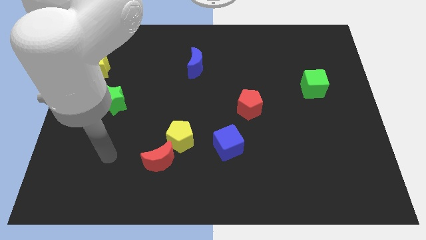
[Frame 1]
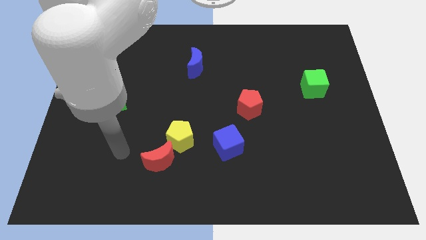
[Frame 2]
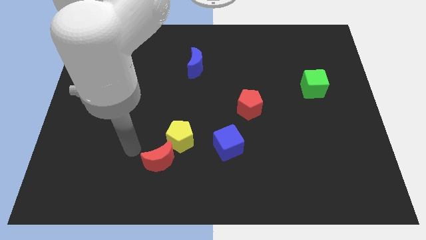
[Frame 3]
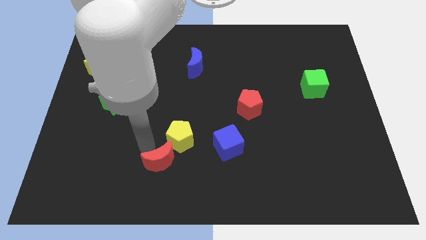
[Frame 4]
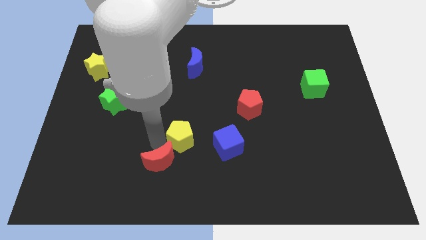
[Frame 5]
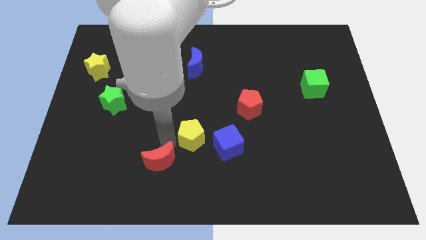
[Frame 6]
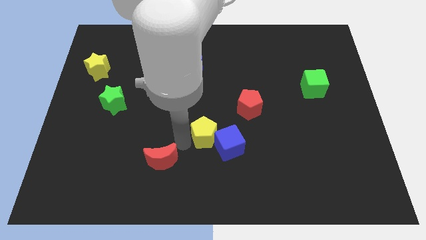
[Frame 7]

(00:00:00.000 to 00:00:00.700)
pull the red moon apart from the yellow pentagon

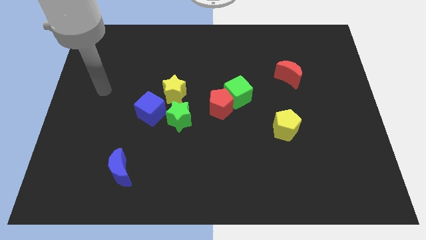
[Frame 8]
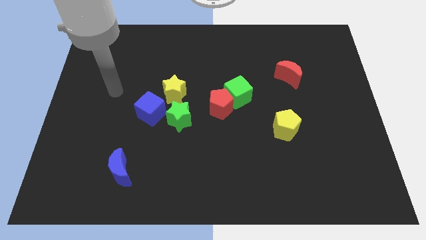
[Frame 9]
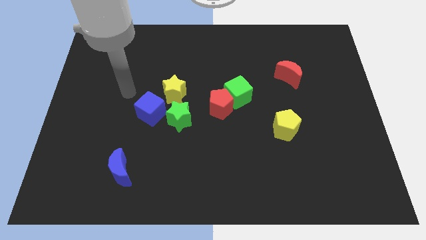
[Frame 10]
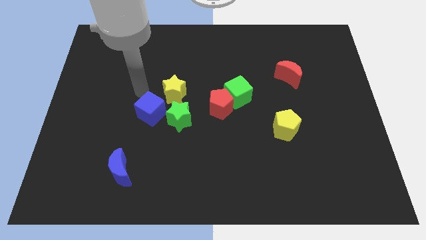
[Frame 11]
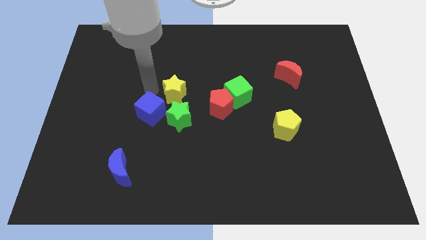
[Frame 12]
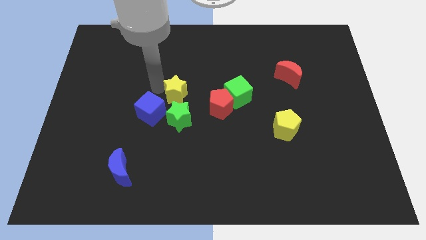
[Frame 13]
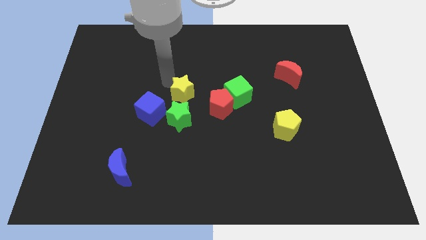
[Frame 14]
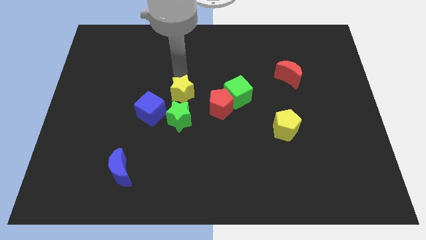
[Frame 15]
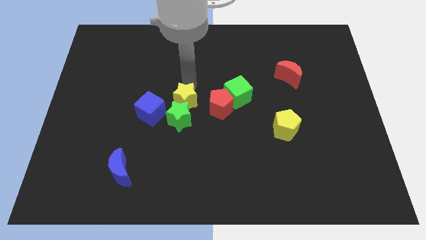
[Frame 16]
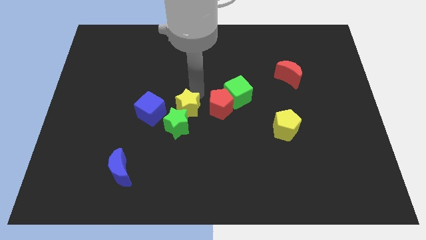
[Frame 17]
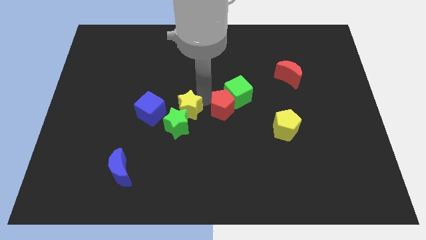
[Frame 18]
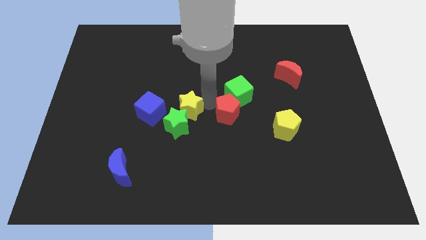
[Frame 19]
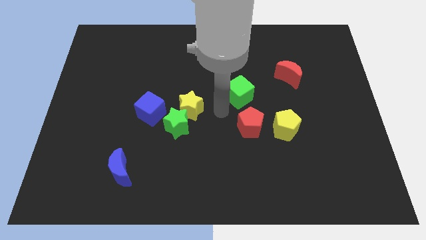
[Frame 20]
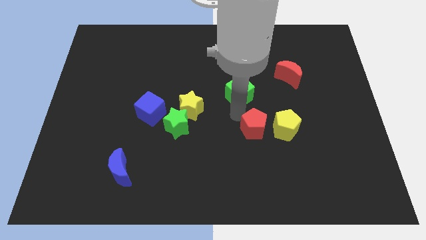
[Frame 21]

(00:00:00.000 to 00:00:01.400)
pull the green cube apart from the red pentagon

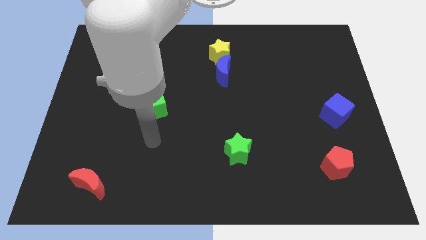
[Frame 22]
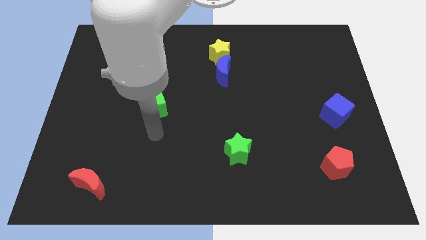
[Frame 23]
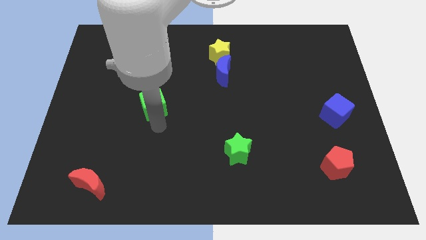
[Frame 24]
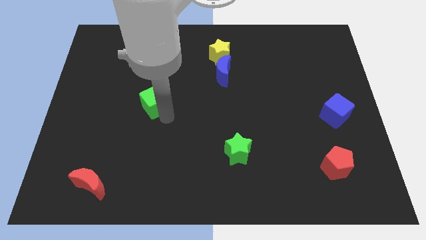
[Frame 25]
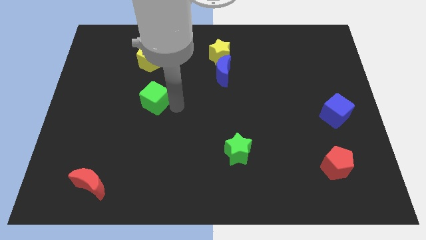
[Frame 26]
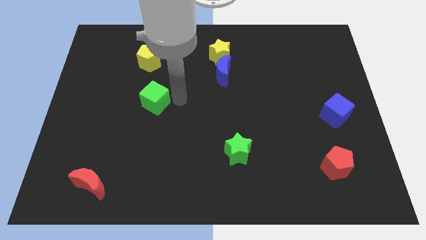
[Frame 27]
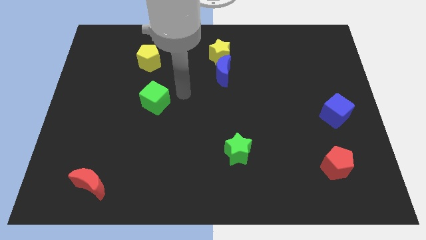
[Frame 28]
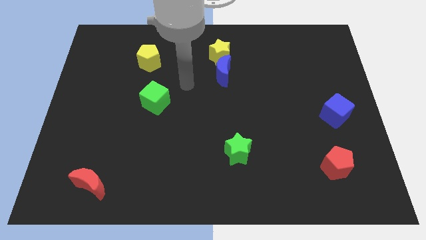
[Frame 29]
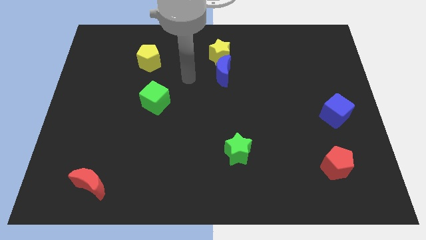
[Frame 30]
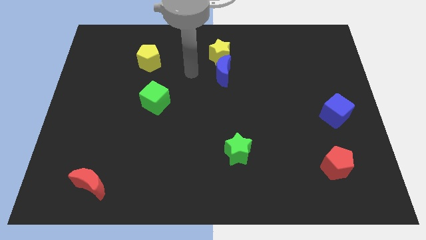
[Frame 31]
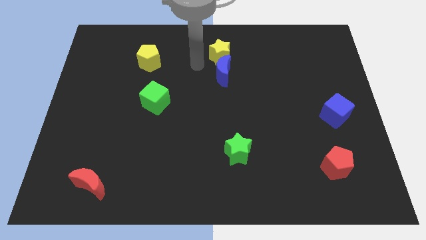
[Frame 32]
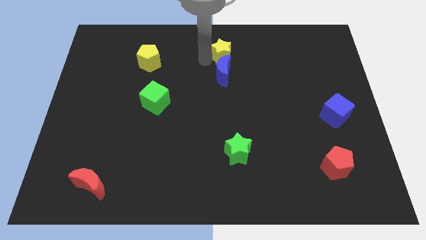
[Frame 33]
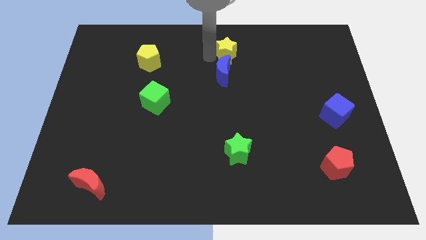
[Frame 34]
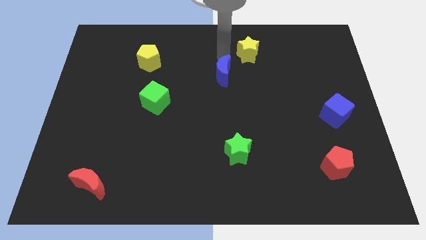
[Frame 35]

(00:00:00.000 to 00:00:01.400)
pull the blue moon apart from the yellow star

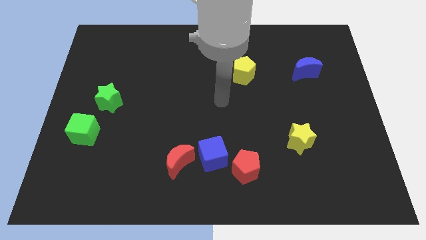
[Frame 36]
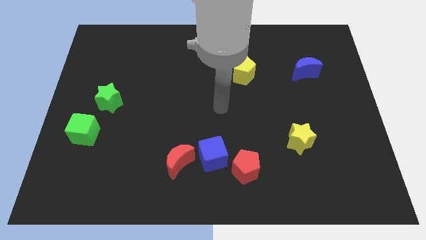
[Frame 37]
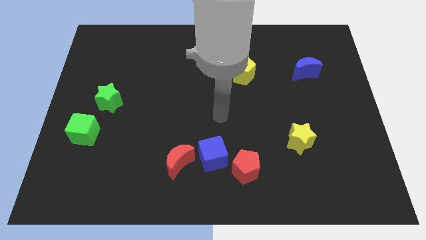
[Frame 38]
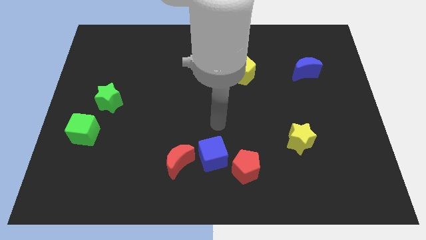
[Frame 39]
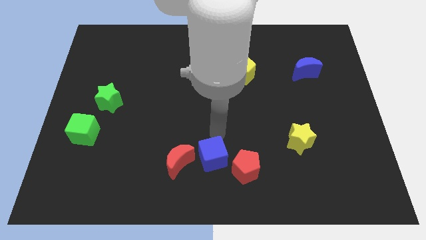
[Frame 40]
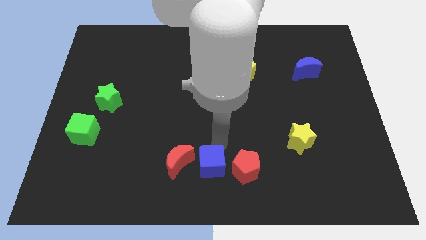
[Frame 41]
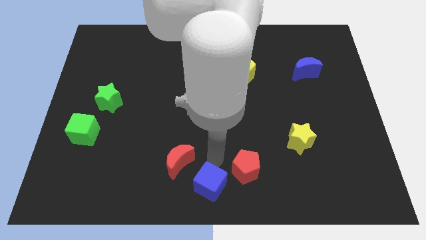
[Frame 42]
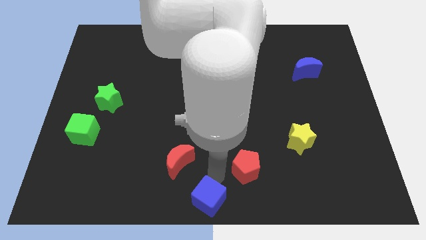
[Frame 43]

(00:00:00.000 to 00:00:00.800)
pull the red pentagon apart from the blue cube

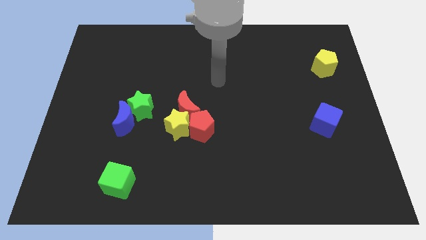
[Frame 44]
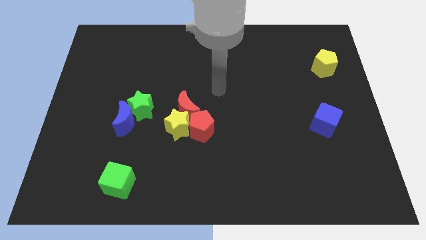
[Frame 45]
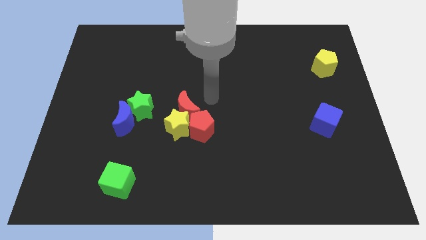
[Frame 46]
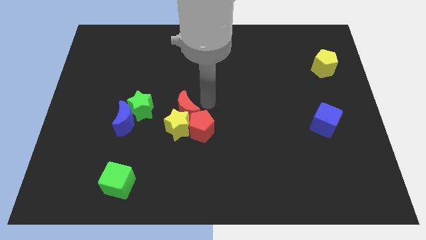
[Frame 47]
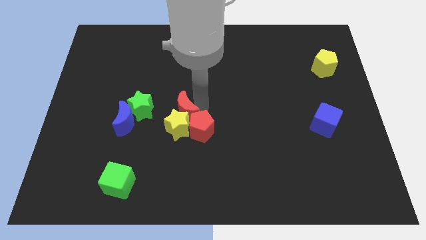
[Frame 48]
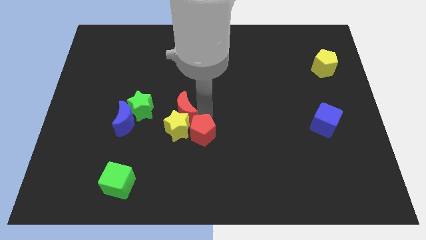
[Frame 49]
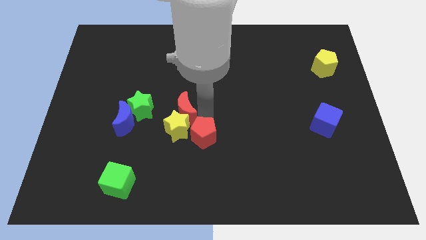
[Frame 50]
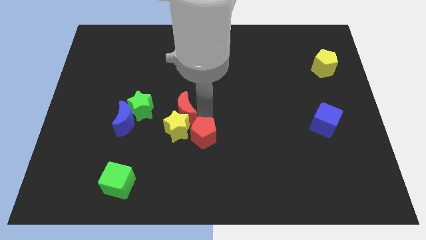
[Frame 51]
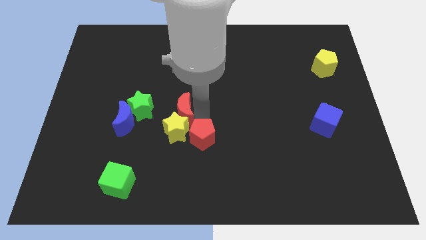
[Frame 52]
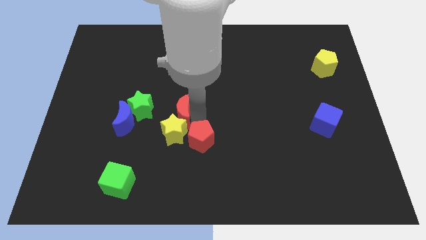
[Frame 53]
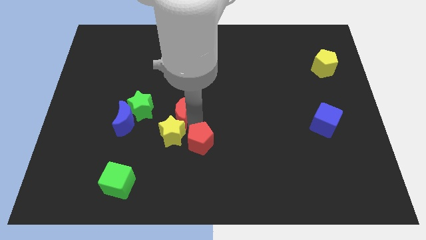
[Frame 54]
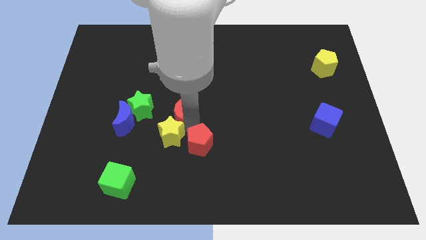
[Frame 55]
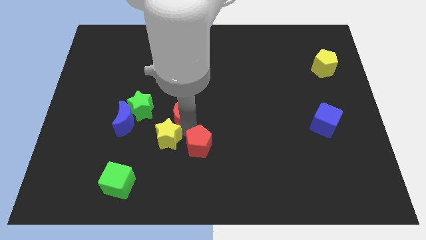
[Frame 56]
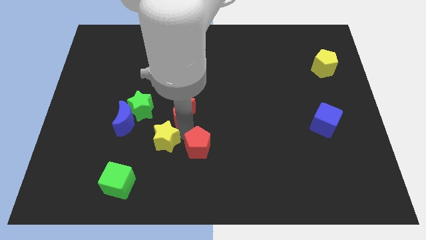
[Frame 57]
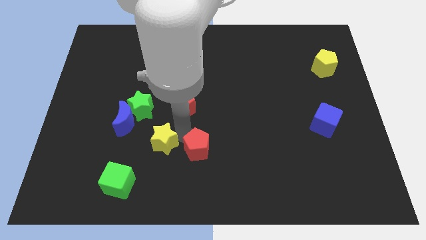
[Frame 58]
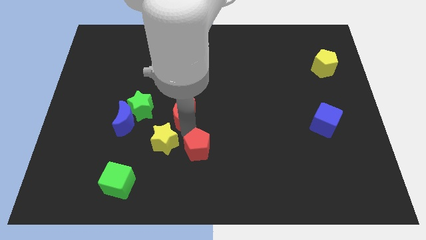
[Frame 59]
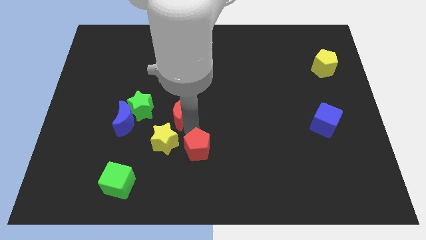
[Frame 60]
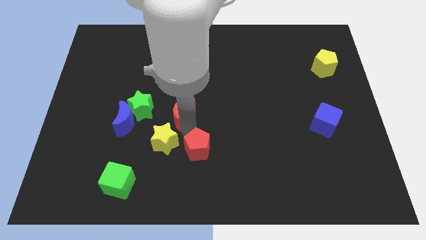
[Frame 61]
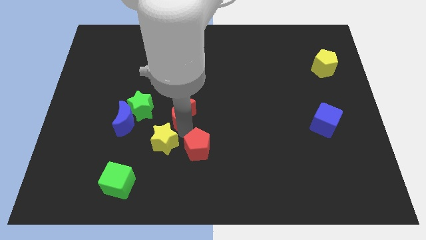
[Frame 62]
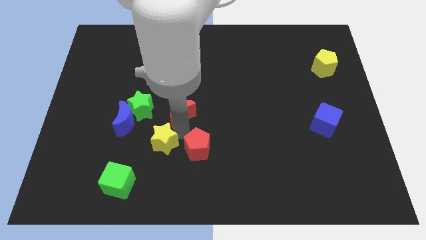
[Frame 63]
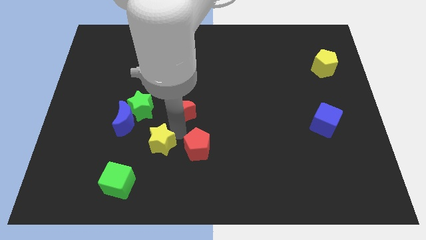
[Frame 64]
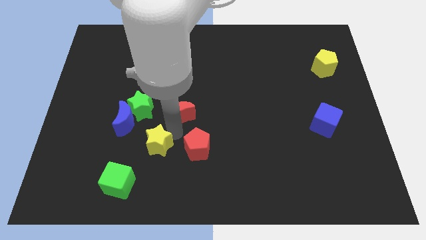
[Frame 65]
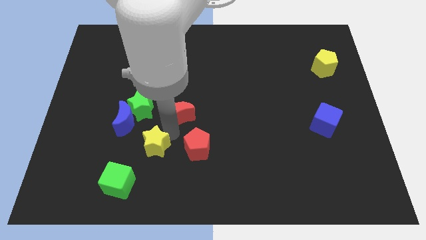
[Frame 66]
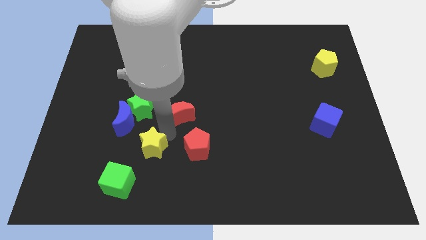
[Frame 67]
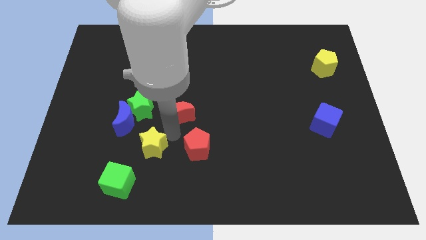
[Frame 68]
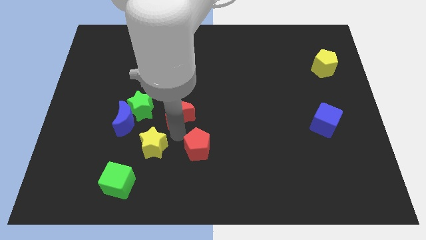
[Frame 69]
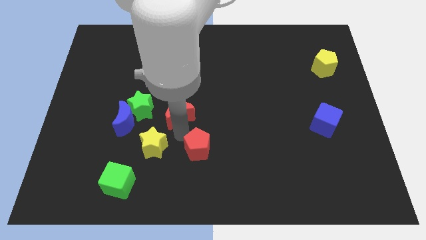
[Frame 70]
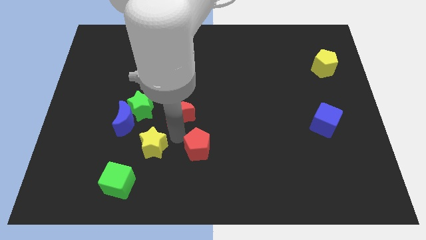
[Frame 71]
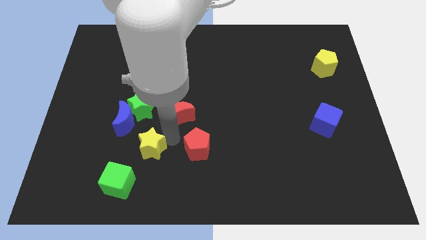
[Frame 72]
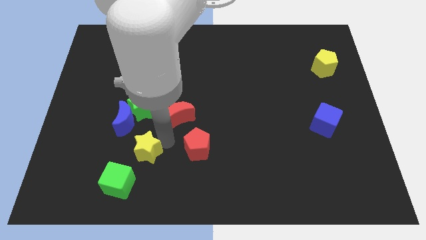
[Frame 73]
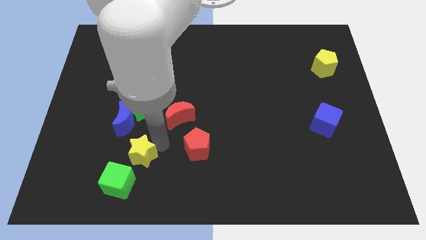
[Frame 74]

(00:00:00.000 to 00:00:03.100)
move the yellow star away from the red pentagon and red moon

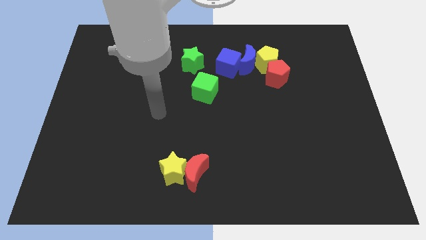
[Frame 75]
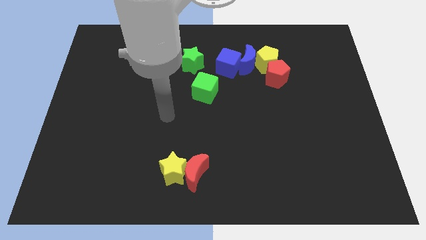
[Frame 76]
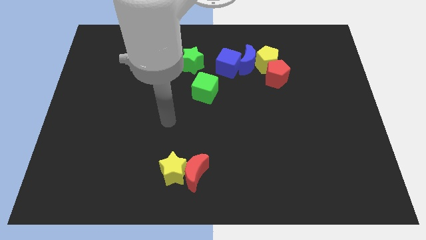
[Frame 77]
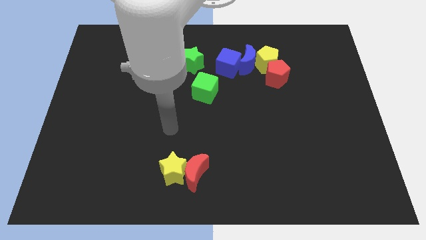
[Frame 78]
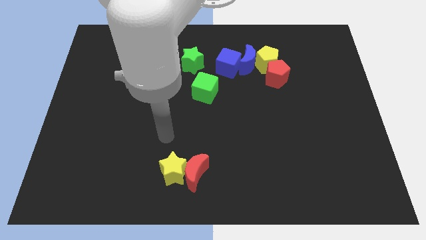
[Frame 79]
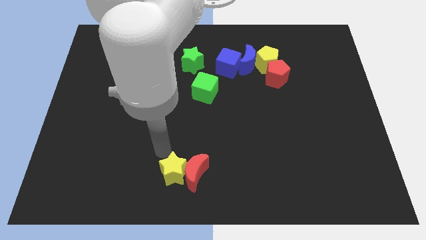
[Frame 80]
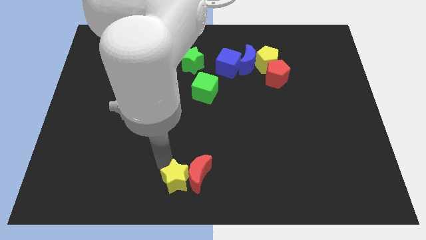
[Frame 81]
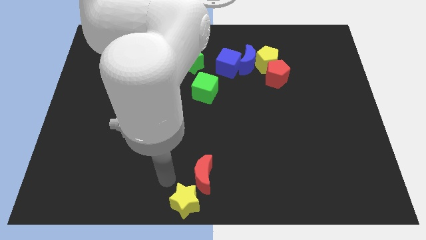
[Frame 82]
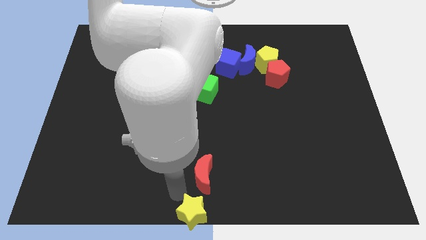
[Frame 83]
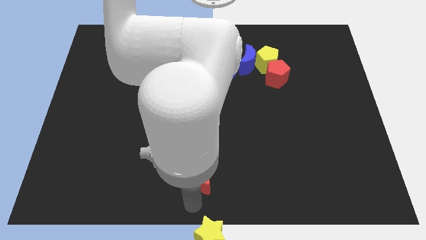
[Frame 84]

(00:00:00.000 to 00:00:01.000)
pull the red moon apart from the yellow star

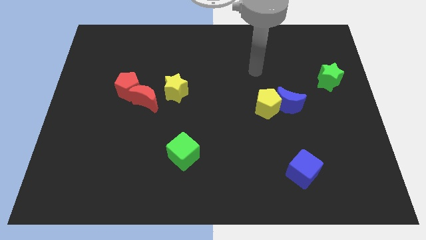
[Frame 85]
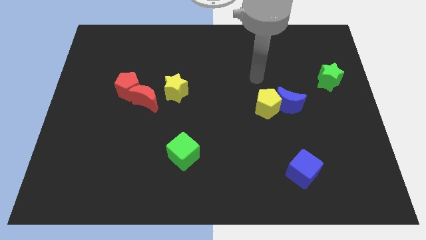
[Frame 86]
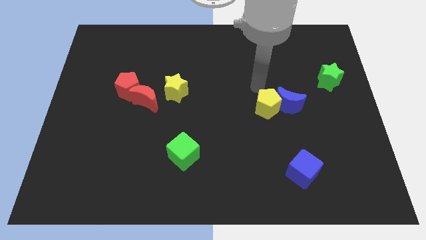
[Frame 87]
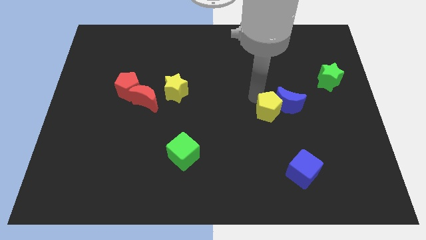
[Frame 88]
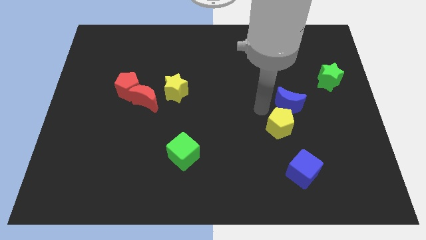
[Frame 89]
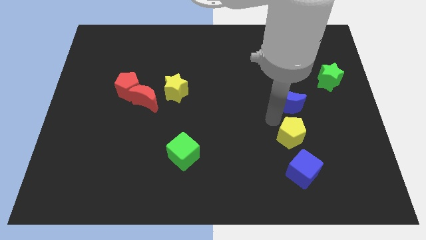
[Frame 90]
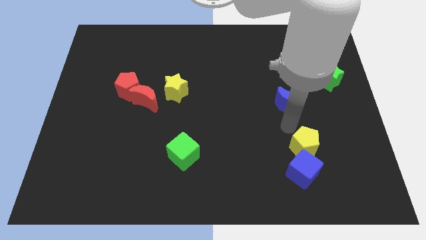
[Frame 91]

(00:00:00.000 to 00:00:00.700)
move the blue moon away from the yellow pentagon

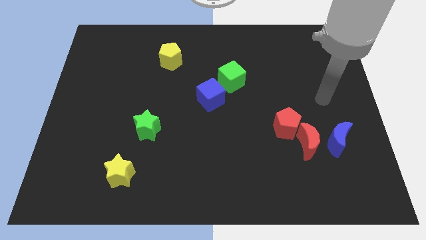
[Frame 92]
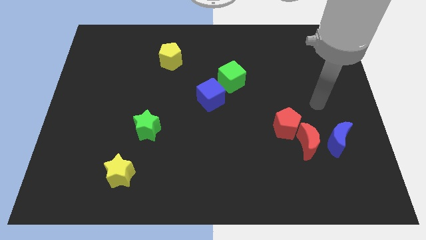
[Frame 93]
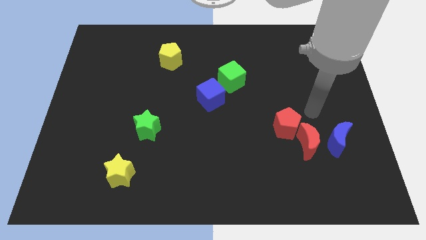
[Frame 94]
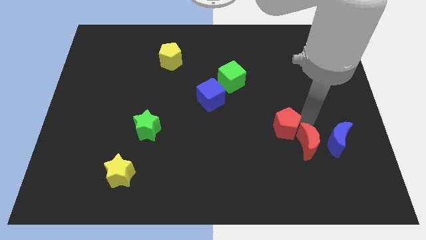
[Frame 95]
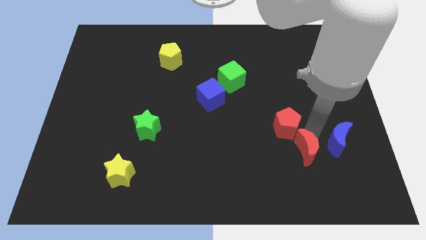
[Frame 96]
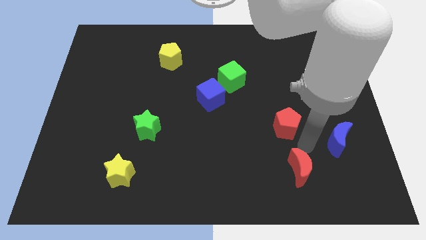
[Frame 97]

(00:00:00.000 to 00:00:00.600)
move the red pentagon away from the red moon
